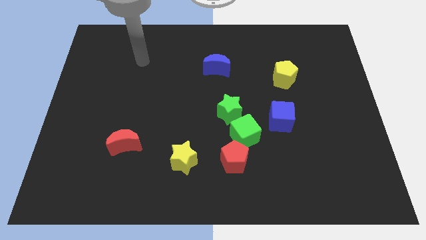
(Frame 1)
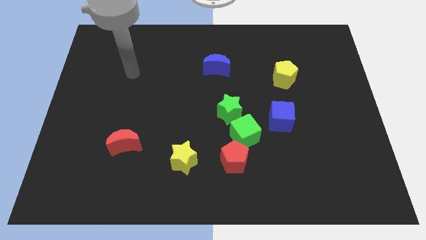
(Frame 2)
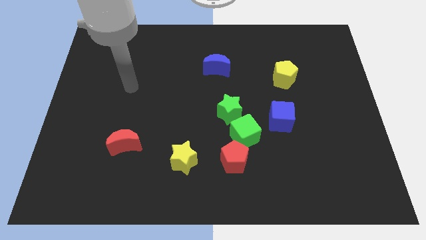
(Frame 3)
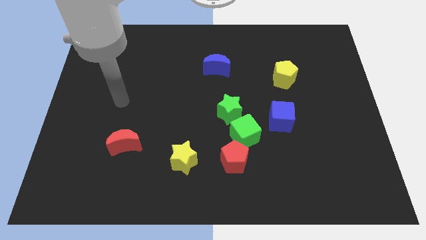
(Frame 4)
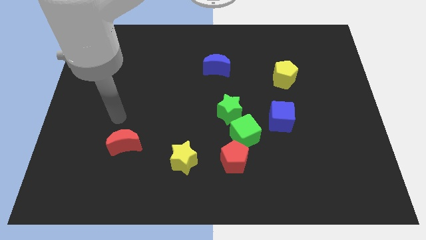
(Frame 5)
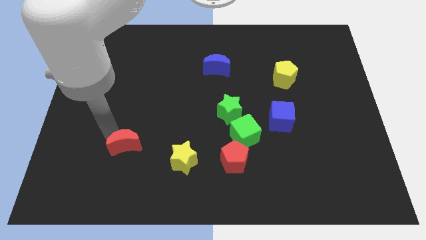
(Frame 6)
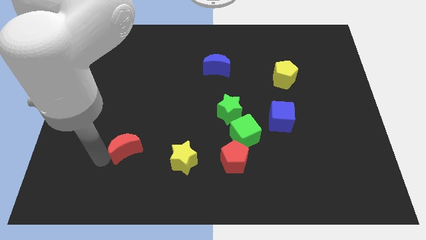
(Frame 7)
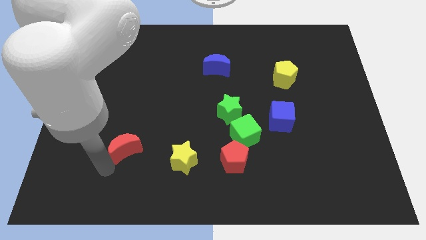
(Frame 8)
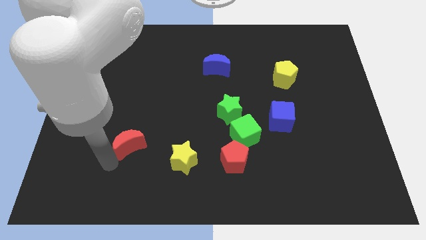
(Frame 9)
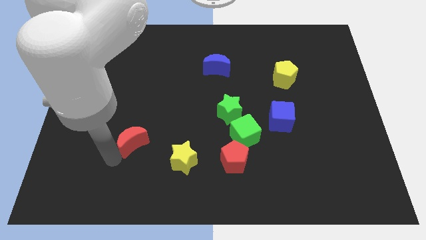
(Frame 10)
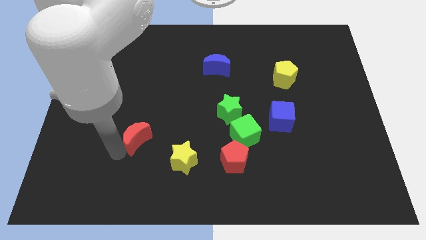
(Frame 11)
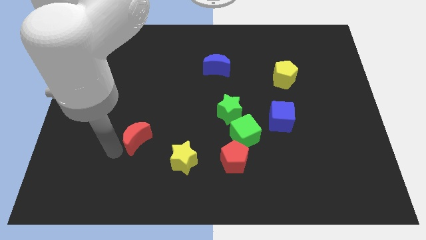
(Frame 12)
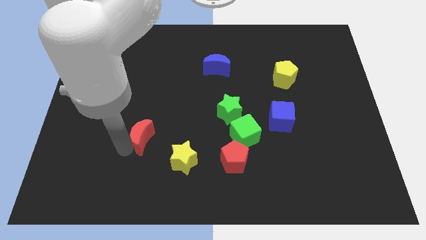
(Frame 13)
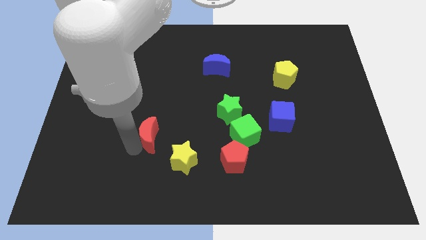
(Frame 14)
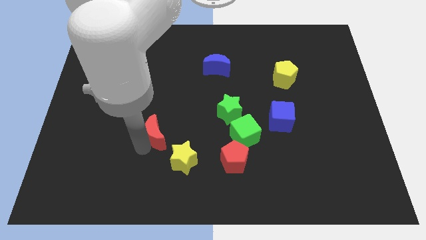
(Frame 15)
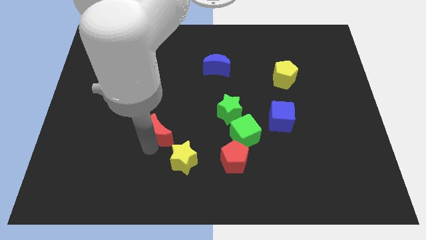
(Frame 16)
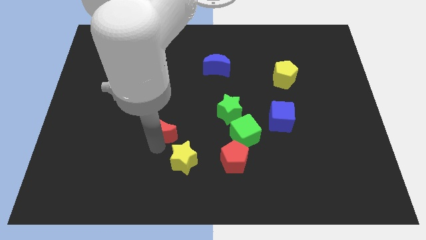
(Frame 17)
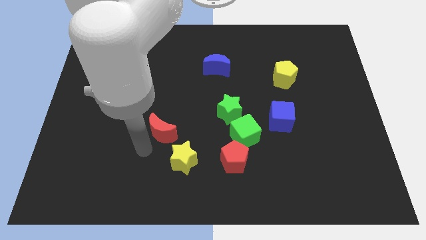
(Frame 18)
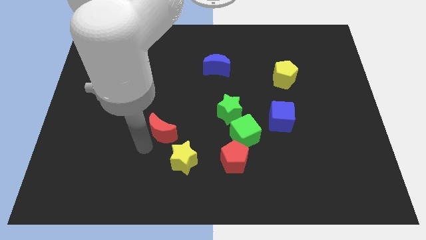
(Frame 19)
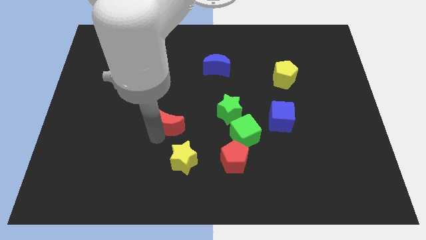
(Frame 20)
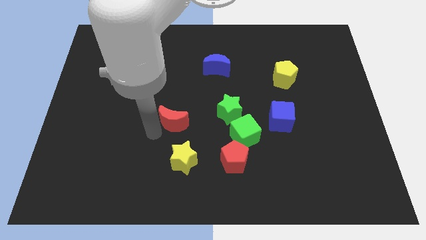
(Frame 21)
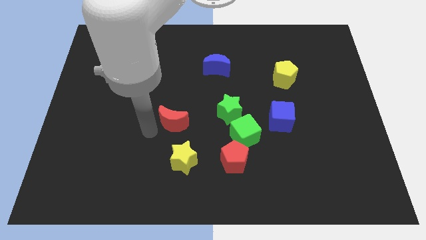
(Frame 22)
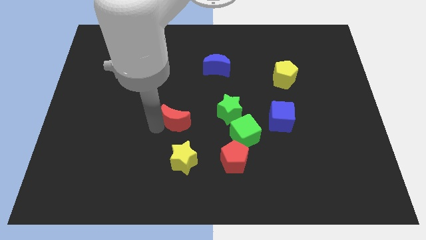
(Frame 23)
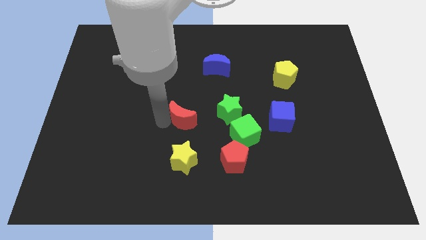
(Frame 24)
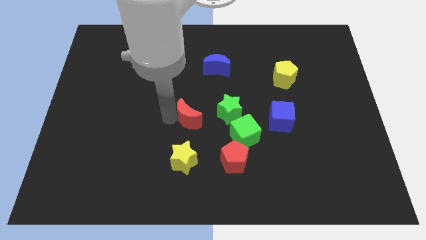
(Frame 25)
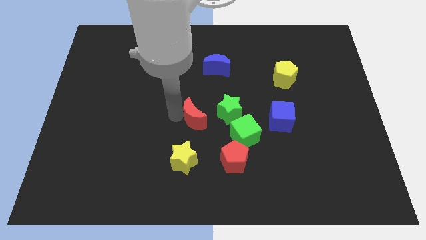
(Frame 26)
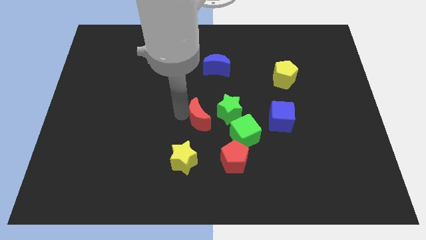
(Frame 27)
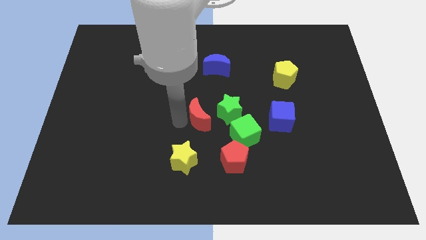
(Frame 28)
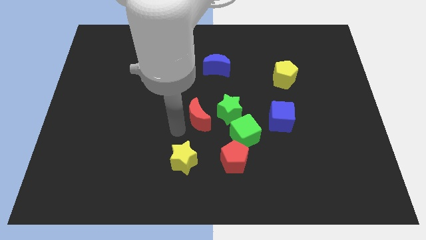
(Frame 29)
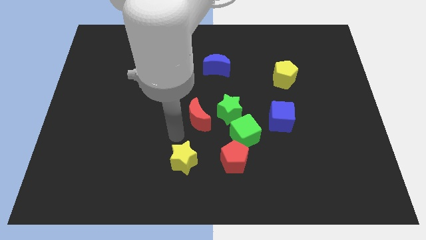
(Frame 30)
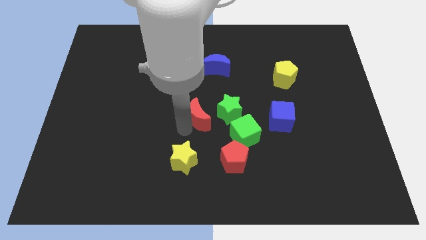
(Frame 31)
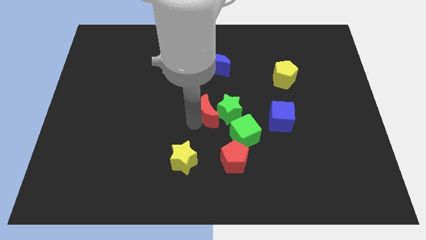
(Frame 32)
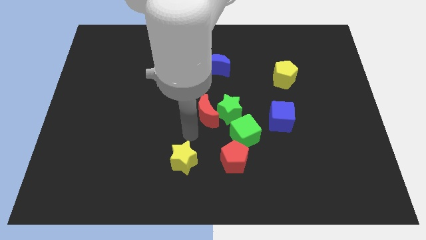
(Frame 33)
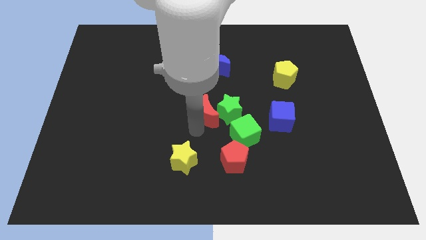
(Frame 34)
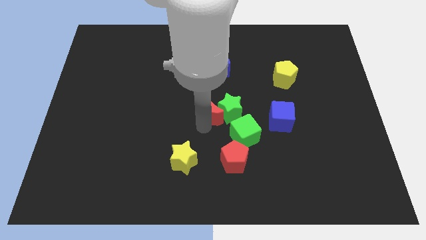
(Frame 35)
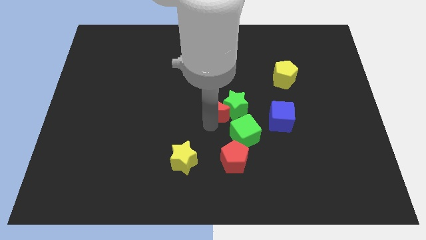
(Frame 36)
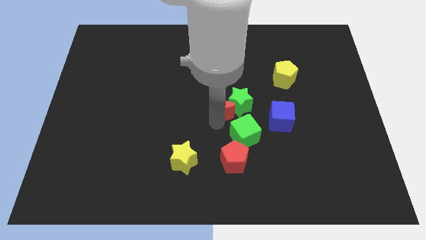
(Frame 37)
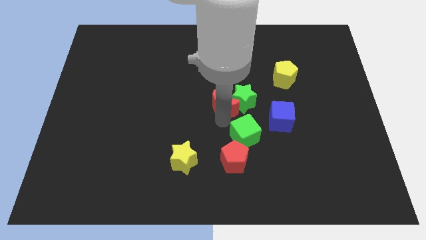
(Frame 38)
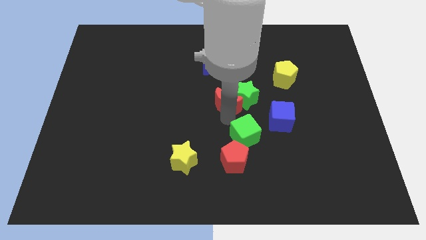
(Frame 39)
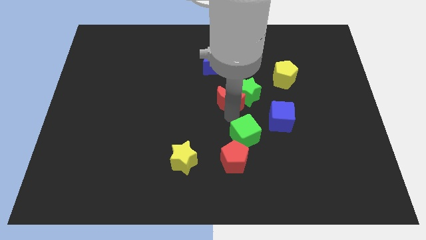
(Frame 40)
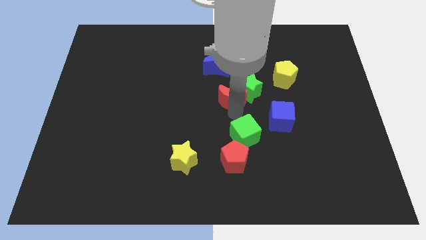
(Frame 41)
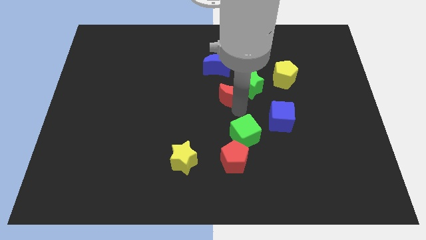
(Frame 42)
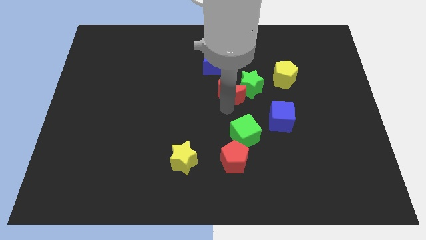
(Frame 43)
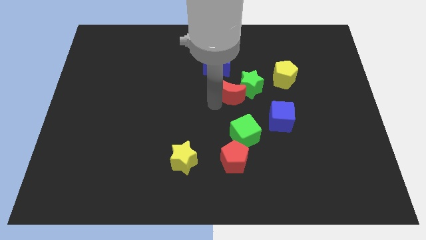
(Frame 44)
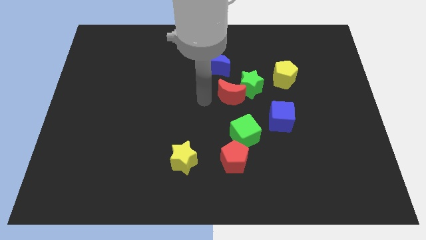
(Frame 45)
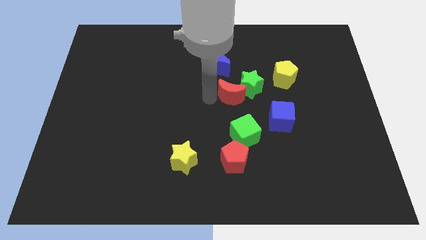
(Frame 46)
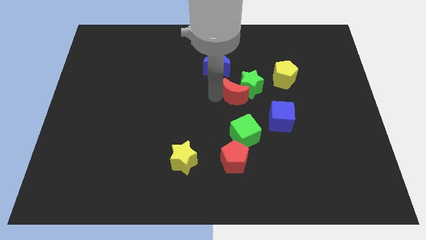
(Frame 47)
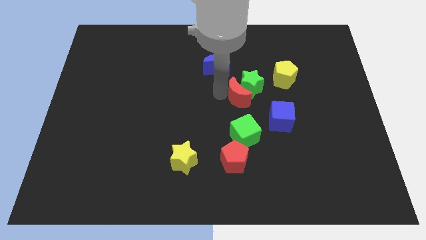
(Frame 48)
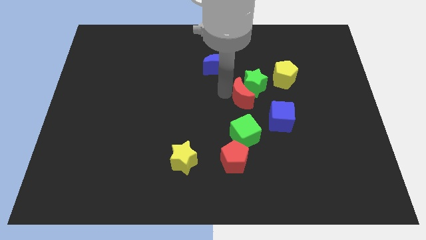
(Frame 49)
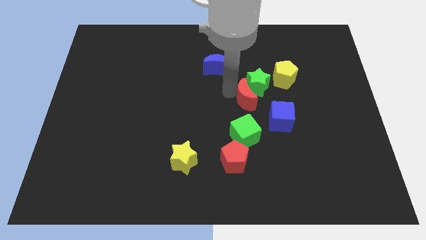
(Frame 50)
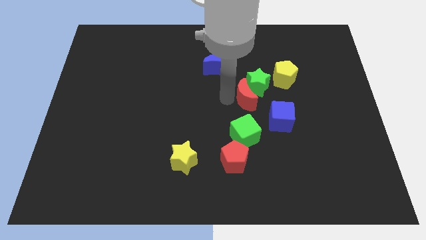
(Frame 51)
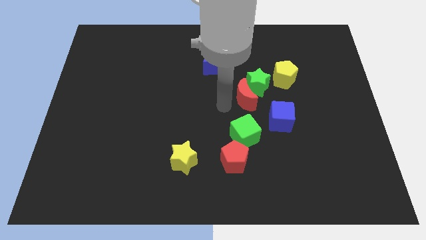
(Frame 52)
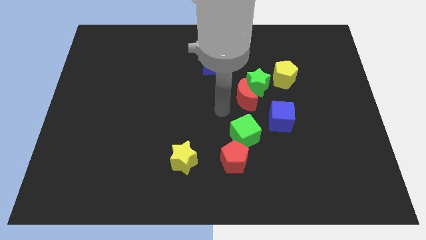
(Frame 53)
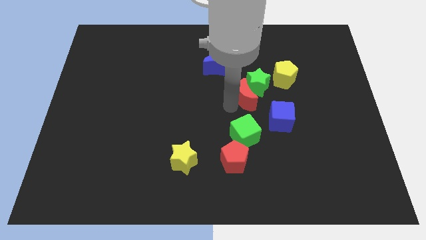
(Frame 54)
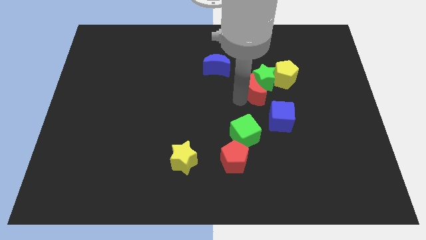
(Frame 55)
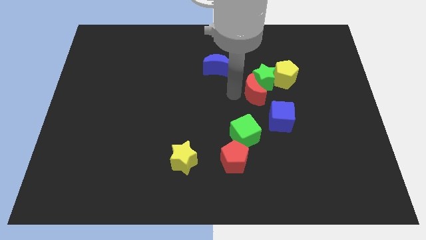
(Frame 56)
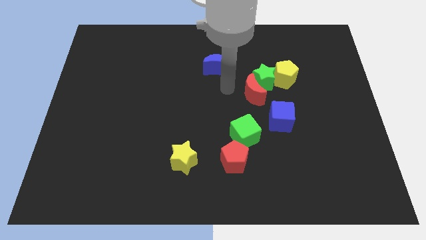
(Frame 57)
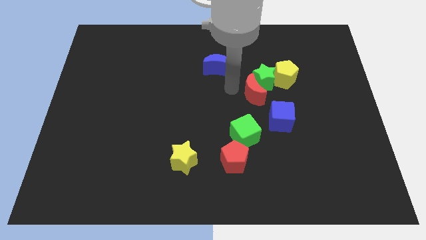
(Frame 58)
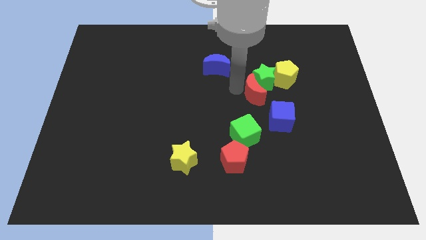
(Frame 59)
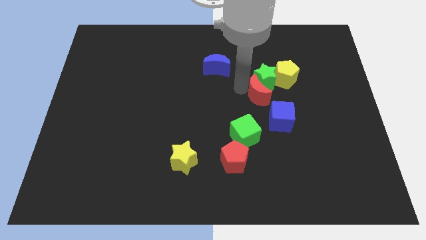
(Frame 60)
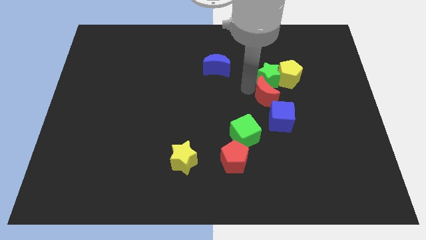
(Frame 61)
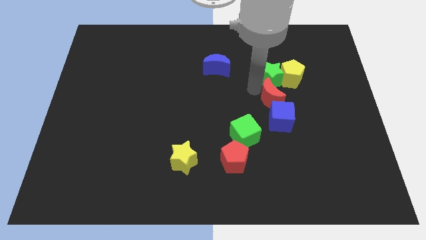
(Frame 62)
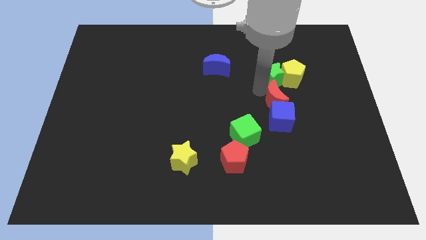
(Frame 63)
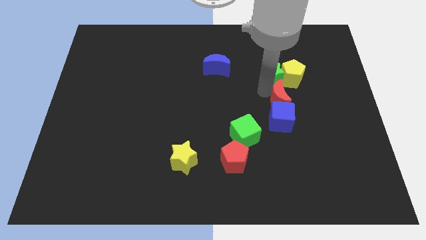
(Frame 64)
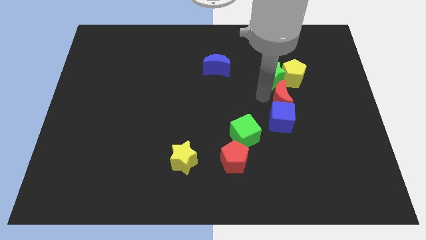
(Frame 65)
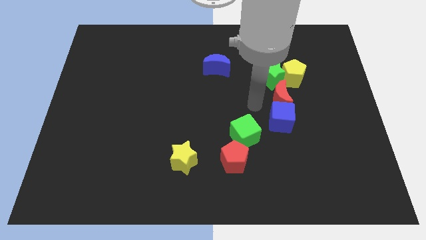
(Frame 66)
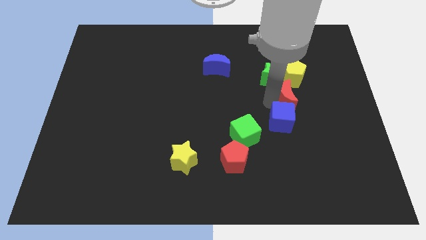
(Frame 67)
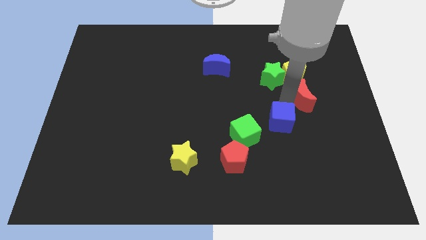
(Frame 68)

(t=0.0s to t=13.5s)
slide the red moon to the bottom right side of the yellow pentagon

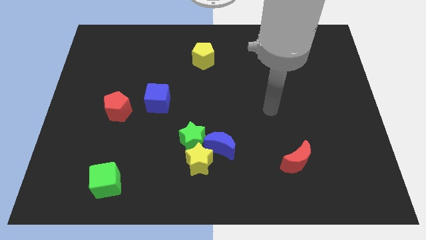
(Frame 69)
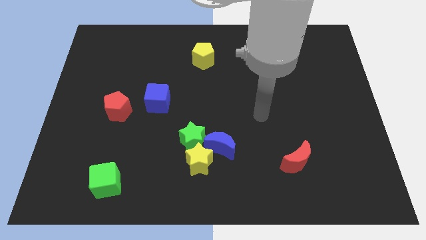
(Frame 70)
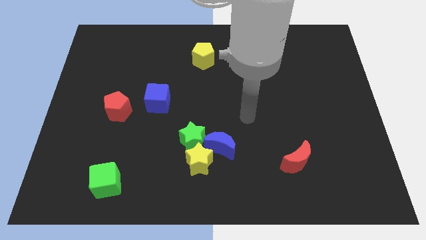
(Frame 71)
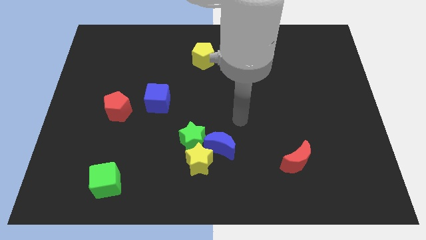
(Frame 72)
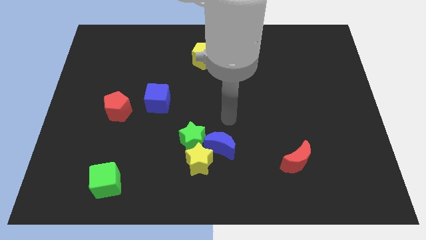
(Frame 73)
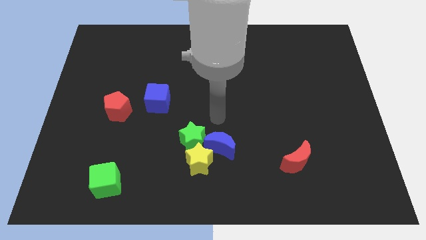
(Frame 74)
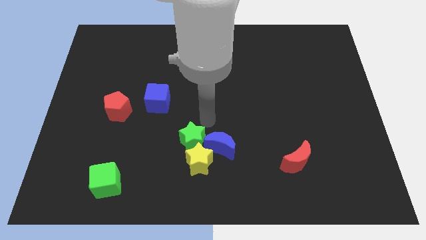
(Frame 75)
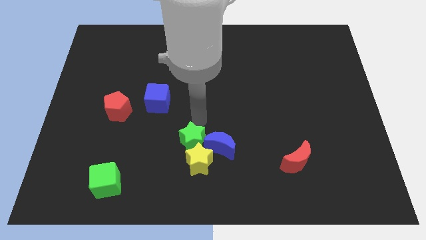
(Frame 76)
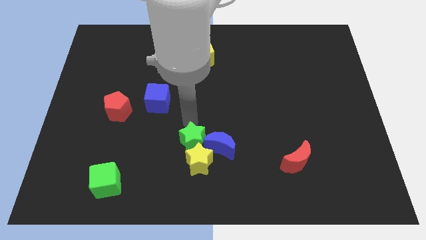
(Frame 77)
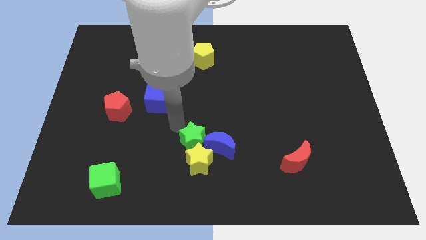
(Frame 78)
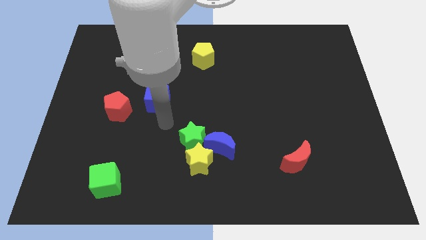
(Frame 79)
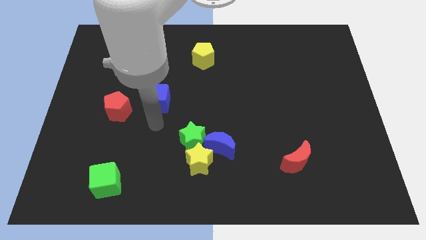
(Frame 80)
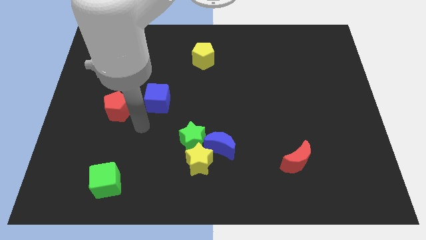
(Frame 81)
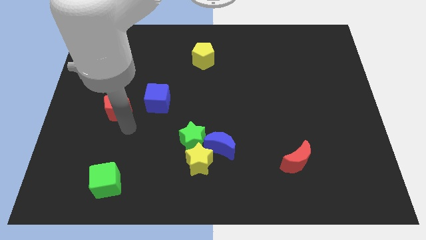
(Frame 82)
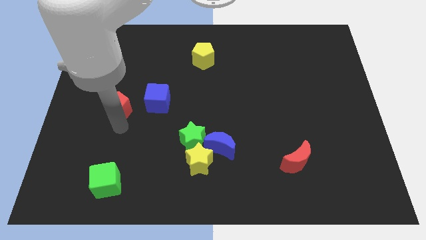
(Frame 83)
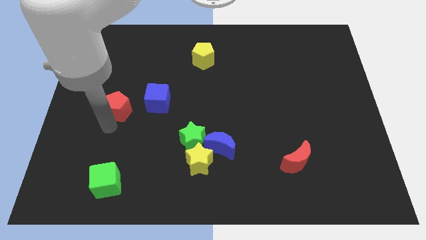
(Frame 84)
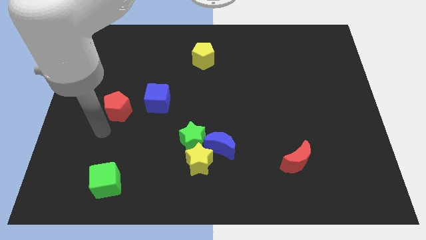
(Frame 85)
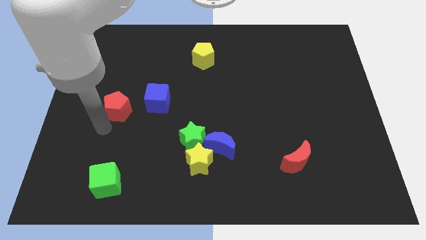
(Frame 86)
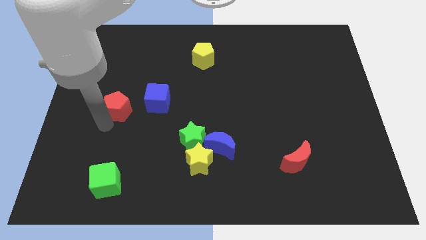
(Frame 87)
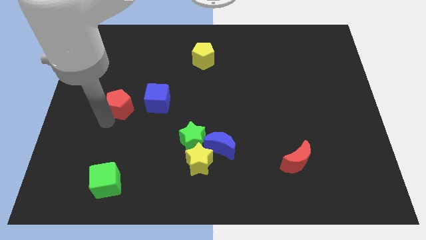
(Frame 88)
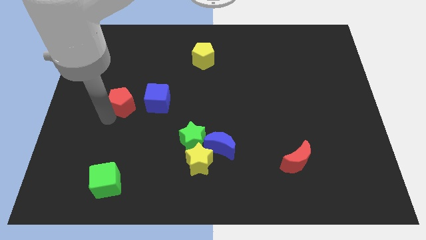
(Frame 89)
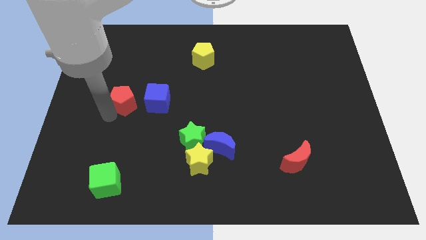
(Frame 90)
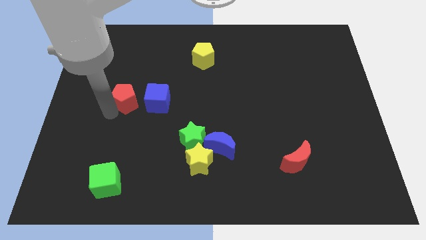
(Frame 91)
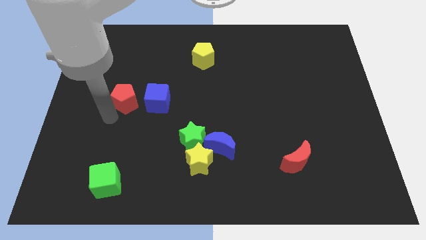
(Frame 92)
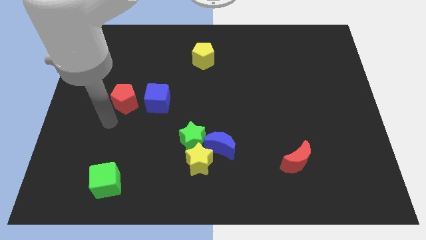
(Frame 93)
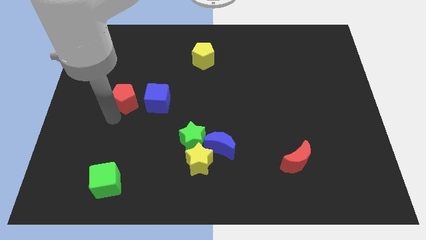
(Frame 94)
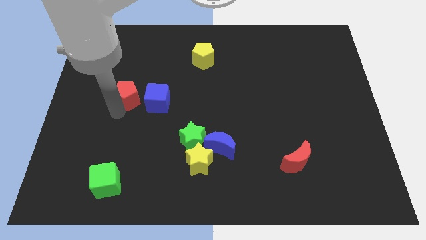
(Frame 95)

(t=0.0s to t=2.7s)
push the red pentagon diagonally up and to the left of the blue cube
